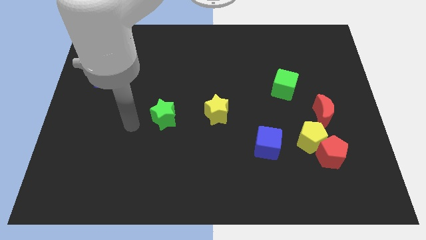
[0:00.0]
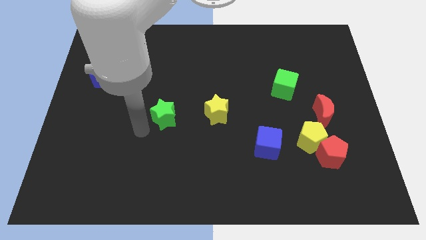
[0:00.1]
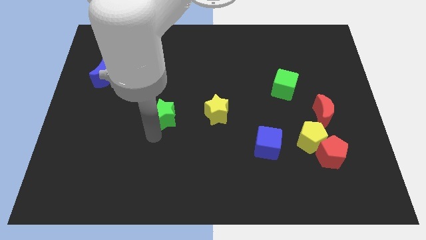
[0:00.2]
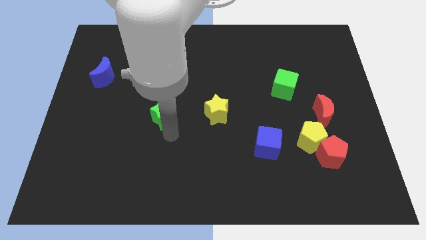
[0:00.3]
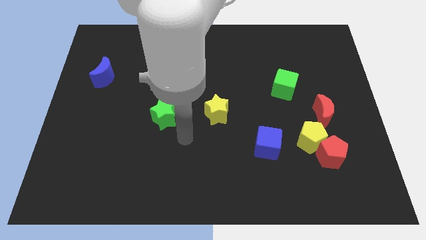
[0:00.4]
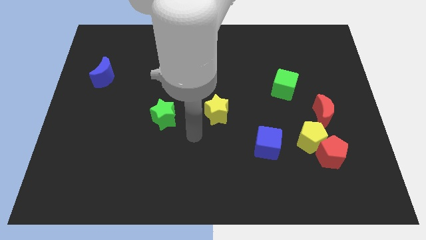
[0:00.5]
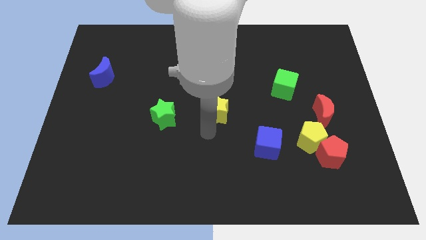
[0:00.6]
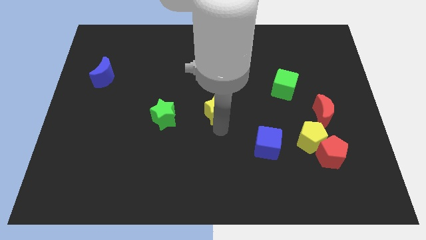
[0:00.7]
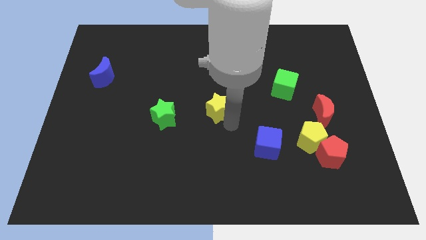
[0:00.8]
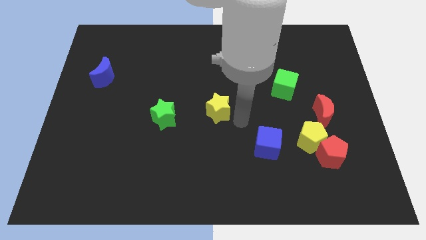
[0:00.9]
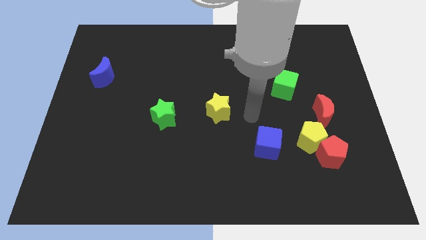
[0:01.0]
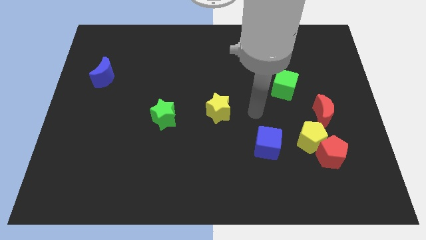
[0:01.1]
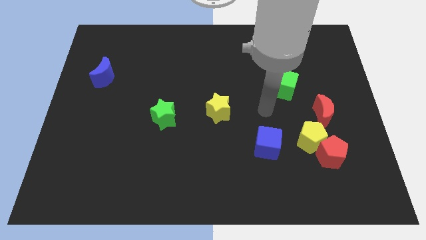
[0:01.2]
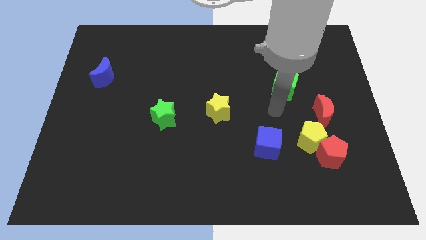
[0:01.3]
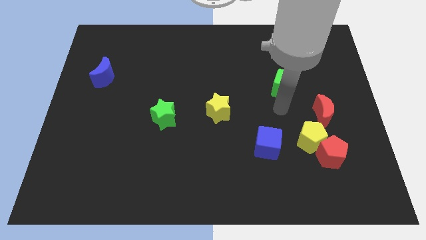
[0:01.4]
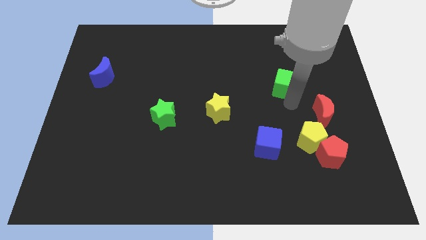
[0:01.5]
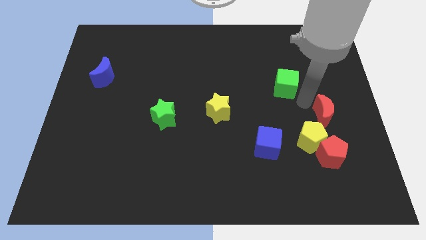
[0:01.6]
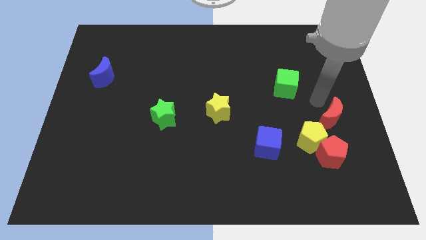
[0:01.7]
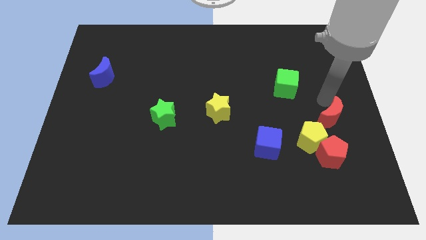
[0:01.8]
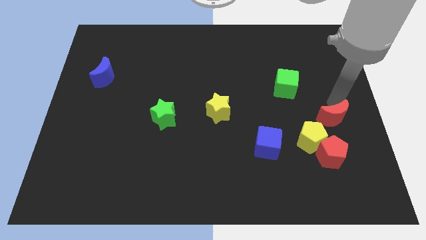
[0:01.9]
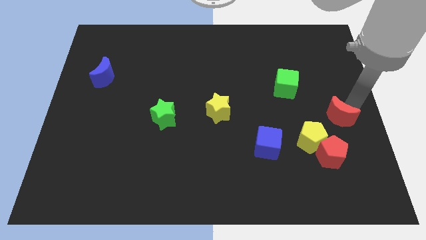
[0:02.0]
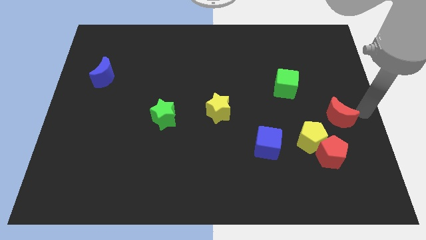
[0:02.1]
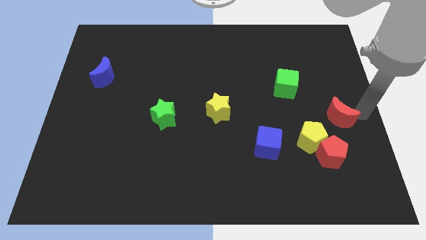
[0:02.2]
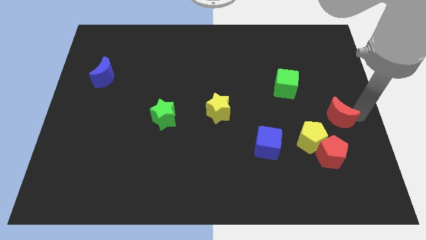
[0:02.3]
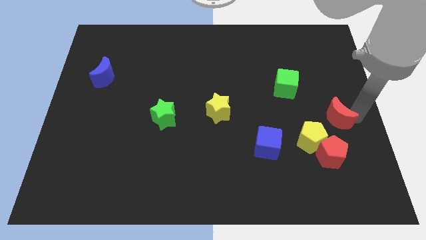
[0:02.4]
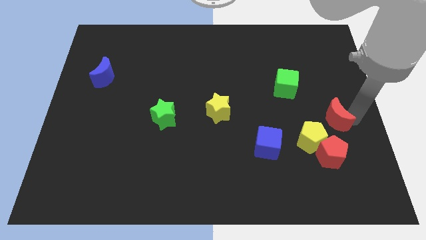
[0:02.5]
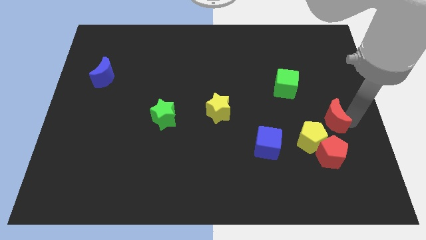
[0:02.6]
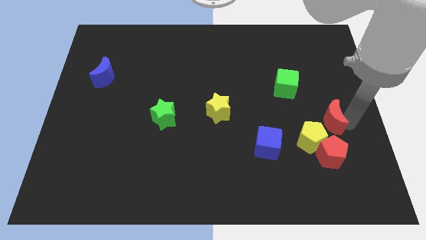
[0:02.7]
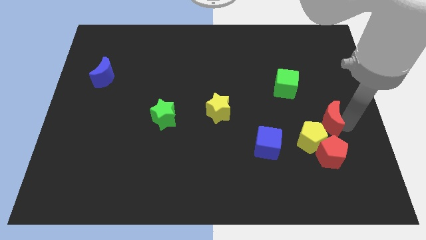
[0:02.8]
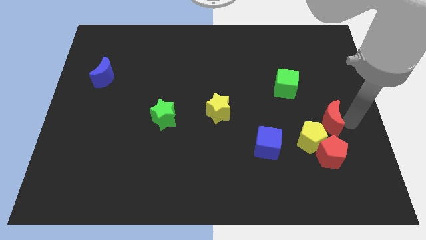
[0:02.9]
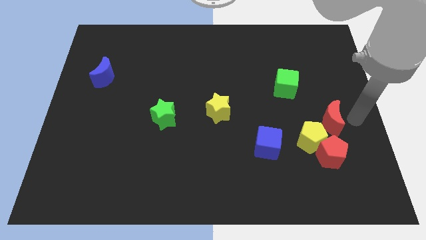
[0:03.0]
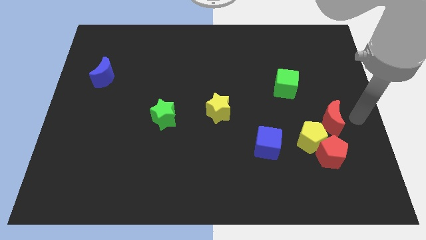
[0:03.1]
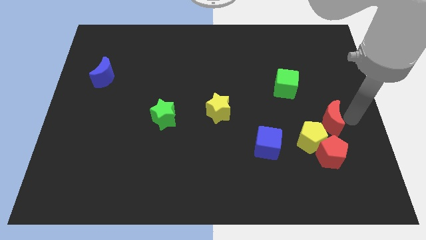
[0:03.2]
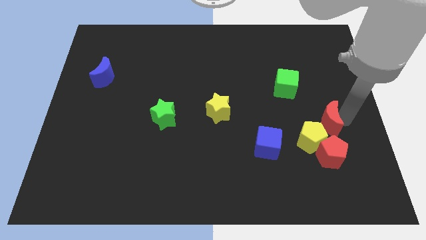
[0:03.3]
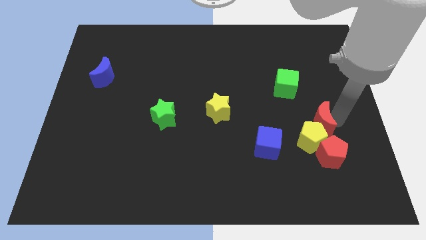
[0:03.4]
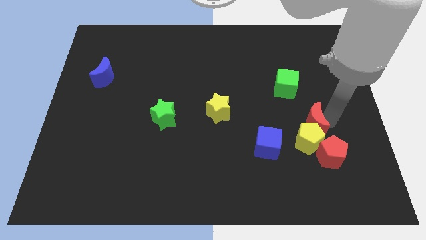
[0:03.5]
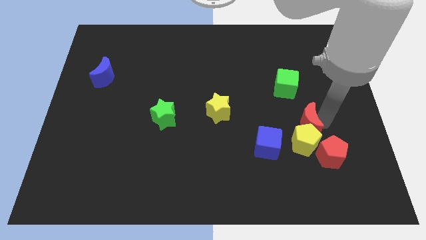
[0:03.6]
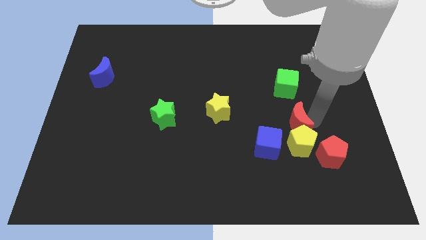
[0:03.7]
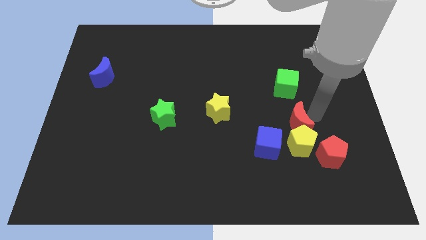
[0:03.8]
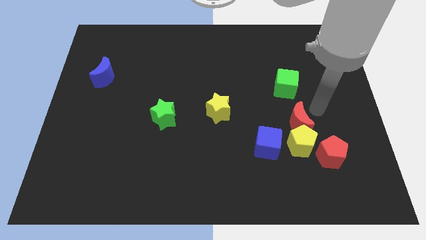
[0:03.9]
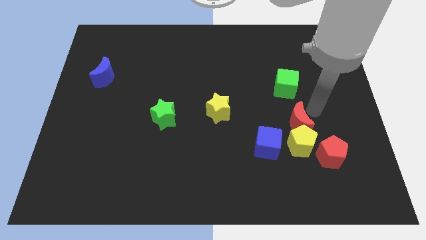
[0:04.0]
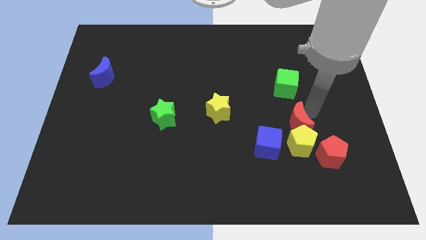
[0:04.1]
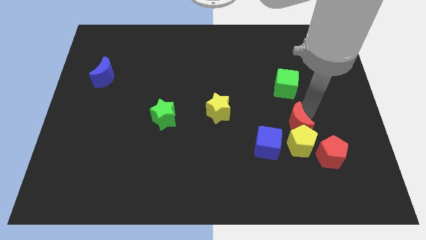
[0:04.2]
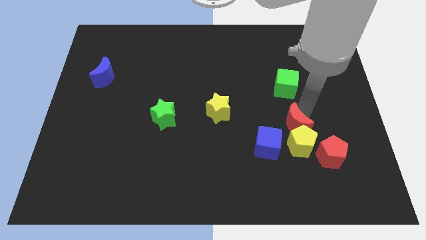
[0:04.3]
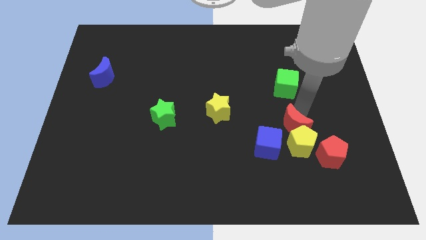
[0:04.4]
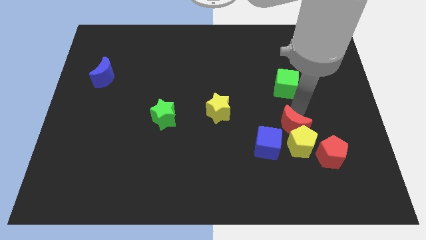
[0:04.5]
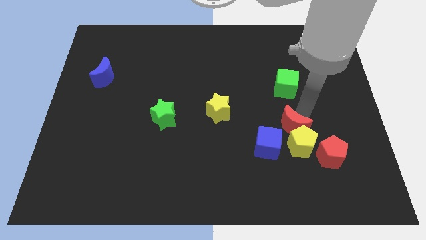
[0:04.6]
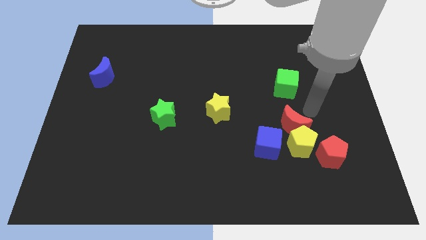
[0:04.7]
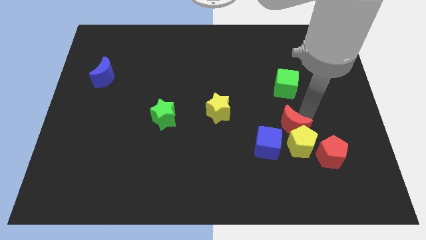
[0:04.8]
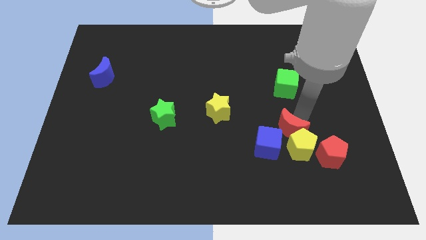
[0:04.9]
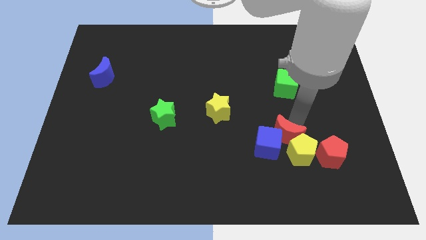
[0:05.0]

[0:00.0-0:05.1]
move the red moon close to the blue cube

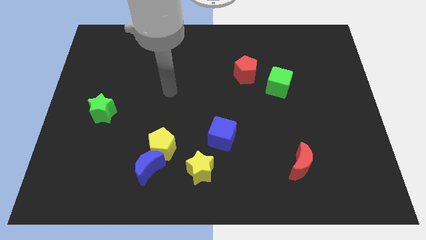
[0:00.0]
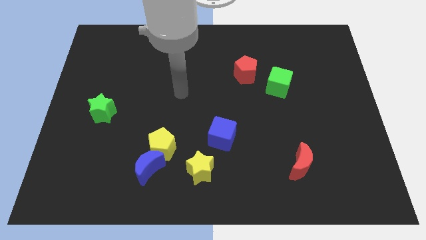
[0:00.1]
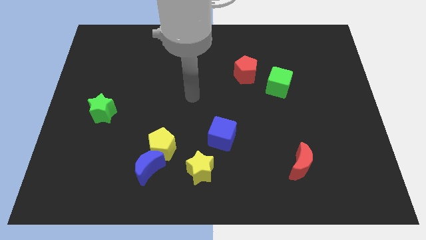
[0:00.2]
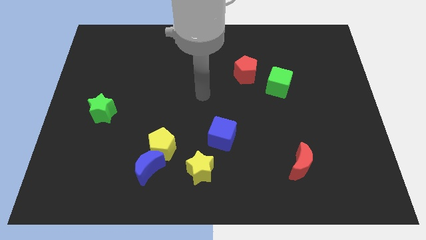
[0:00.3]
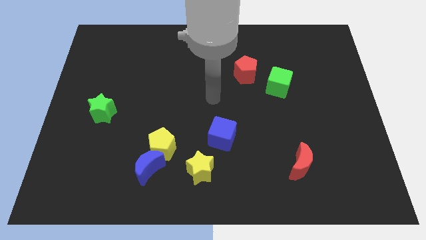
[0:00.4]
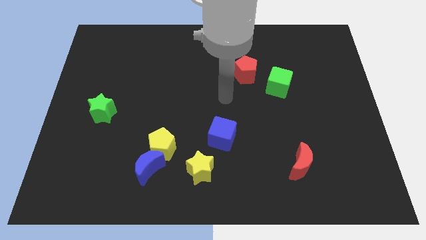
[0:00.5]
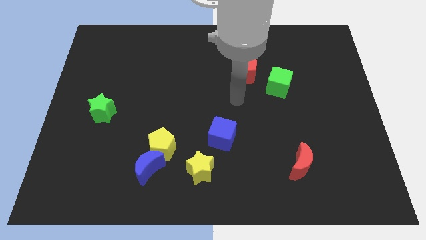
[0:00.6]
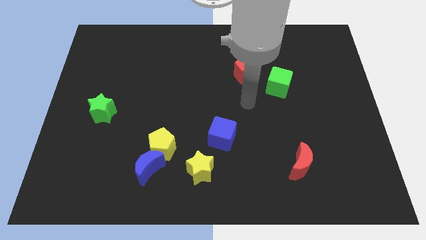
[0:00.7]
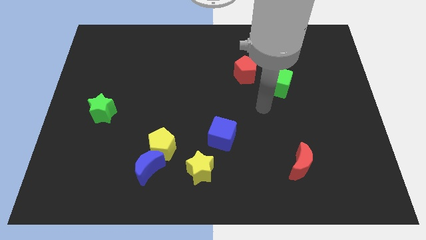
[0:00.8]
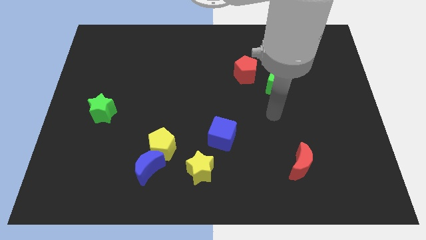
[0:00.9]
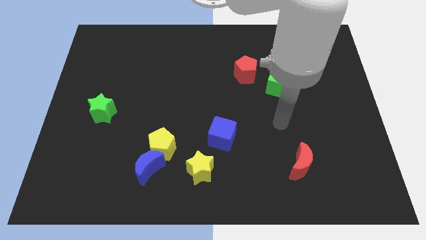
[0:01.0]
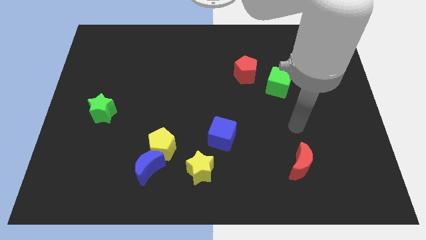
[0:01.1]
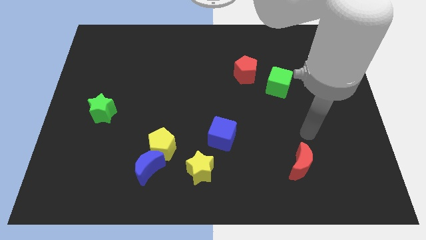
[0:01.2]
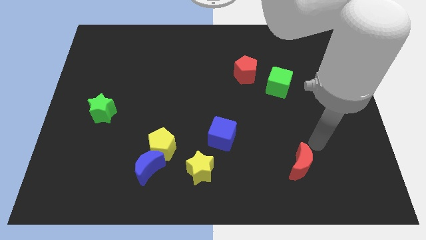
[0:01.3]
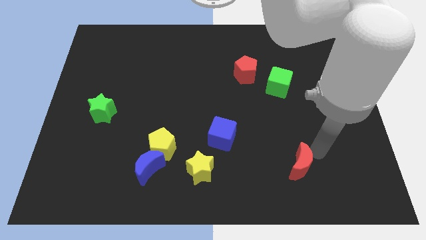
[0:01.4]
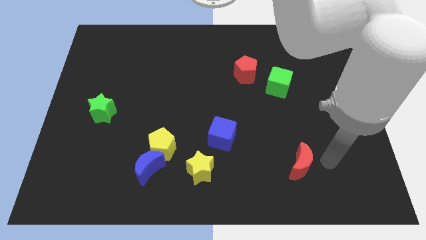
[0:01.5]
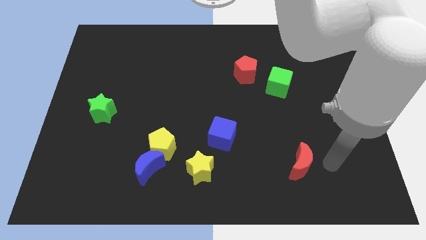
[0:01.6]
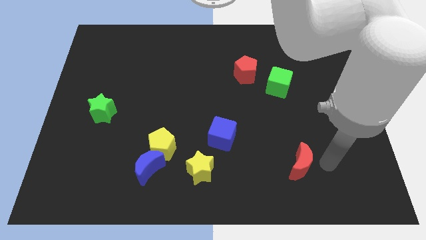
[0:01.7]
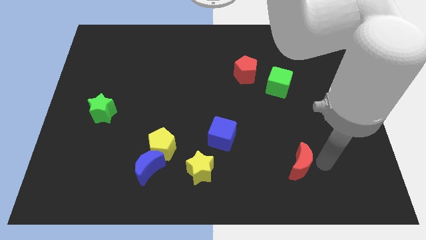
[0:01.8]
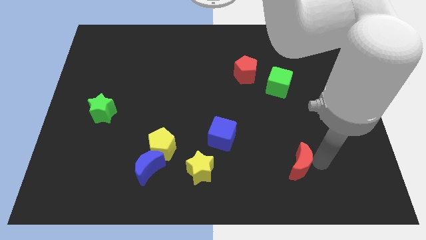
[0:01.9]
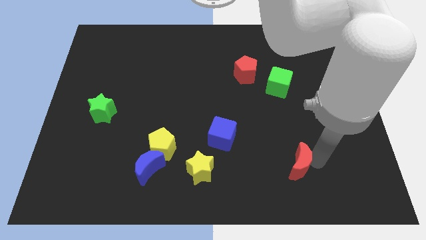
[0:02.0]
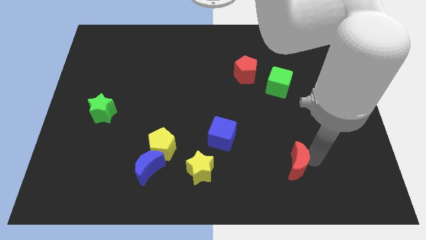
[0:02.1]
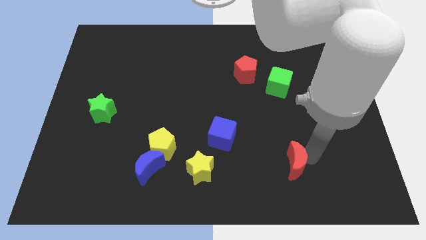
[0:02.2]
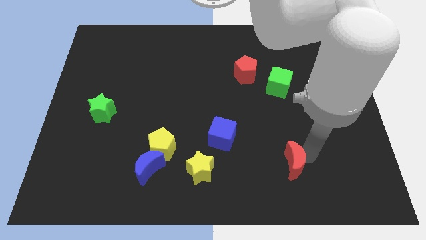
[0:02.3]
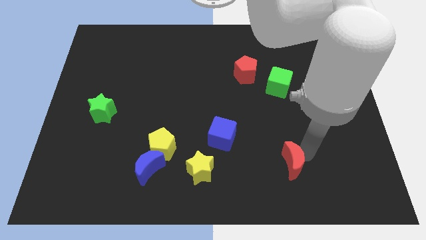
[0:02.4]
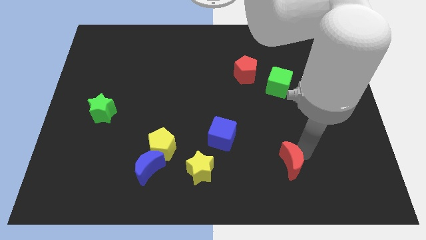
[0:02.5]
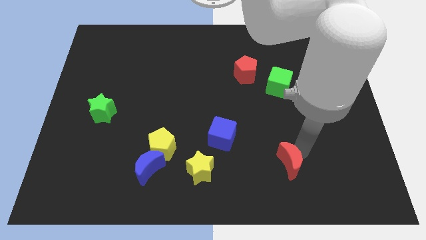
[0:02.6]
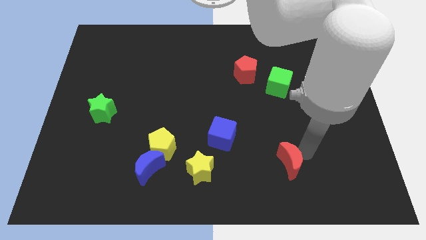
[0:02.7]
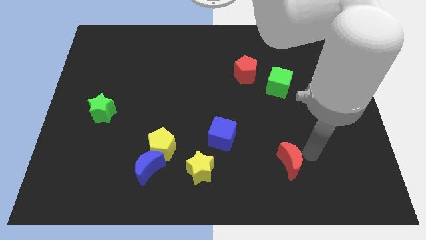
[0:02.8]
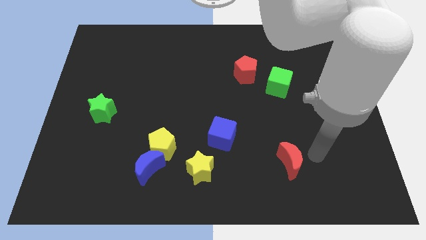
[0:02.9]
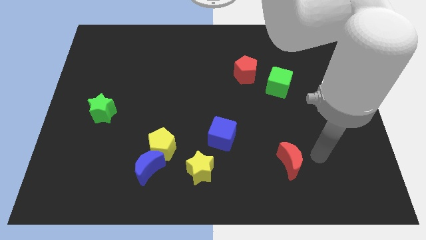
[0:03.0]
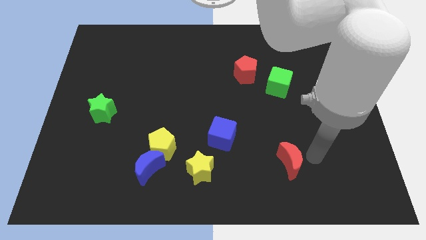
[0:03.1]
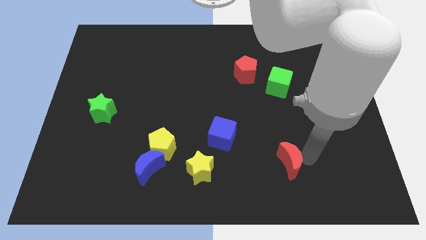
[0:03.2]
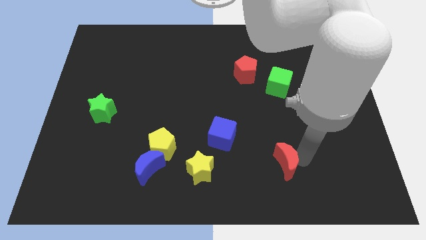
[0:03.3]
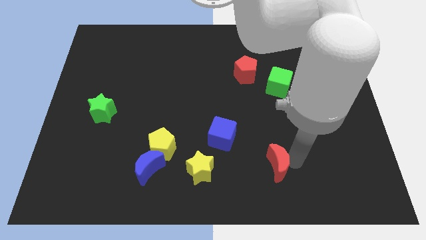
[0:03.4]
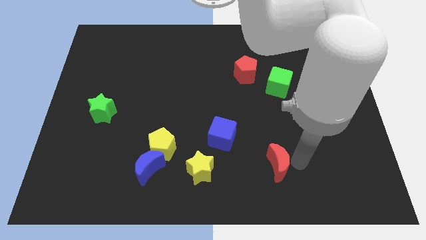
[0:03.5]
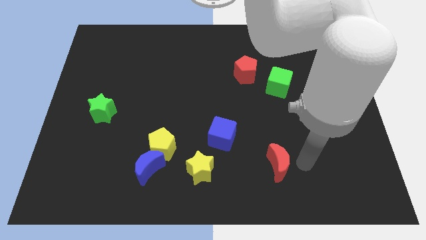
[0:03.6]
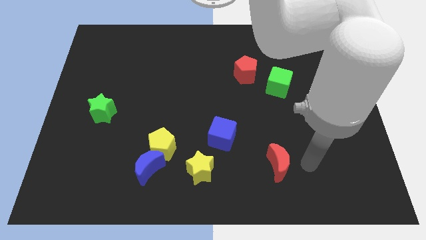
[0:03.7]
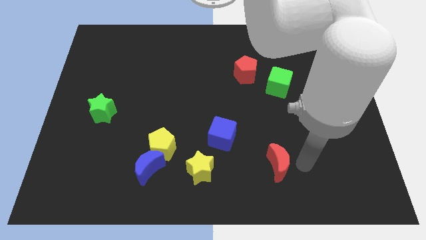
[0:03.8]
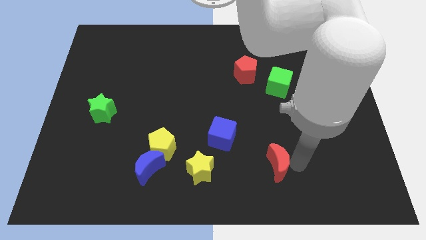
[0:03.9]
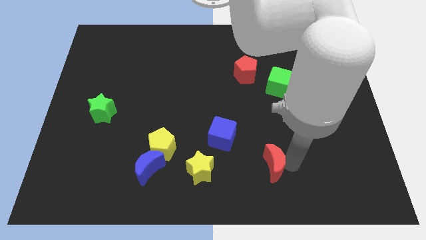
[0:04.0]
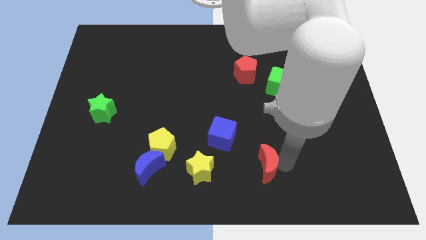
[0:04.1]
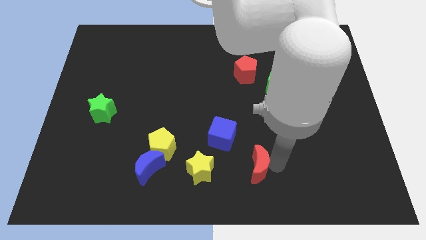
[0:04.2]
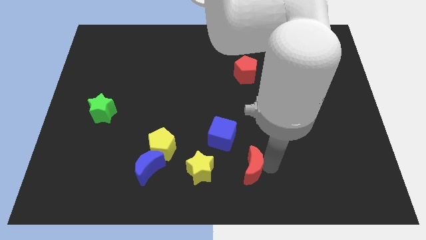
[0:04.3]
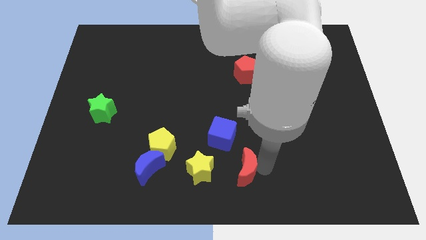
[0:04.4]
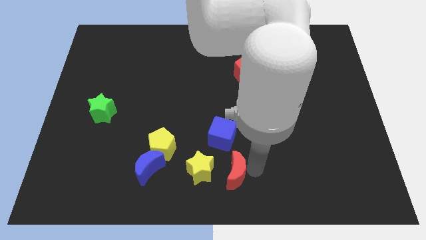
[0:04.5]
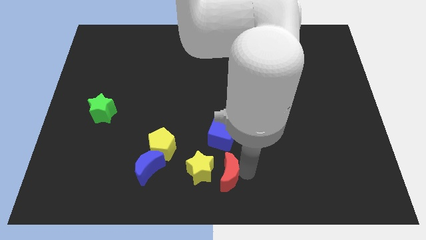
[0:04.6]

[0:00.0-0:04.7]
push the red moon next to the yellow star
